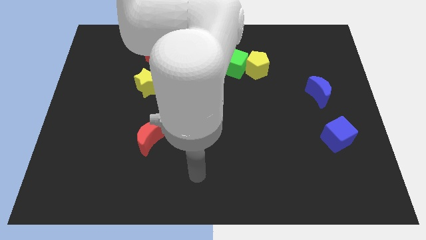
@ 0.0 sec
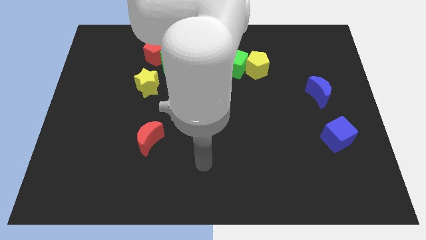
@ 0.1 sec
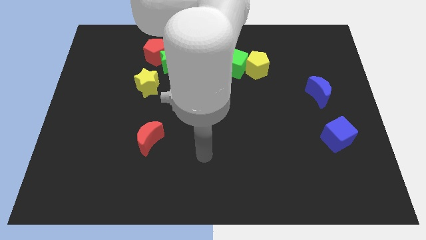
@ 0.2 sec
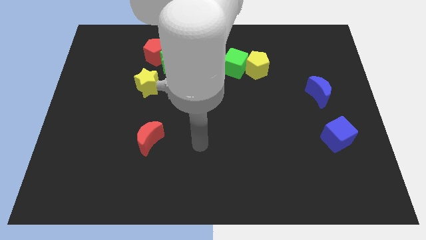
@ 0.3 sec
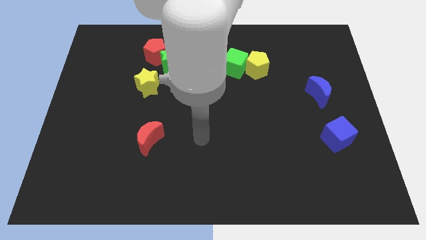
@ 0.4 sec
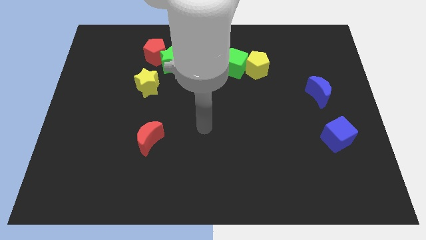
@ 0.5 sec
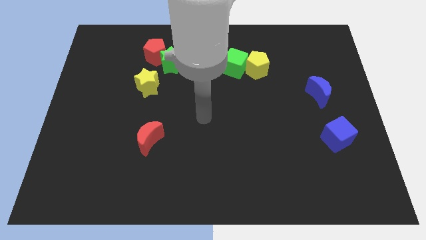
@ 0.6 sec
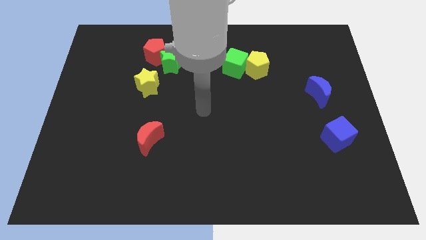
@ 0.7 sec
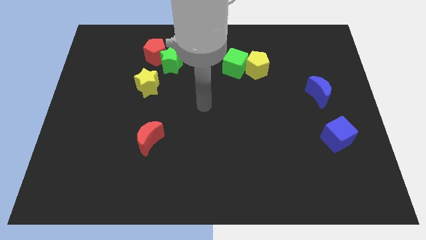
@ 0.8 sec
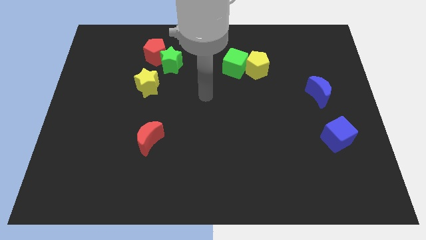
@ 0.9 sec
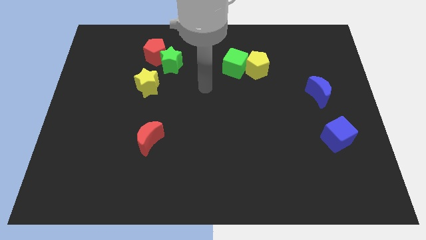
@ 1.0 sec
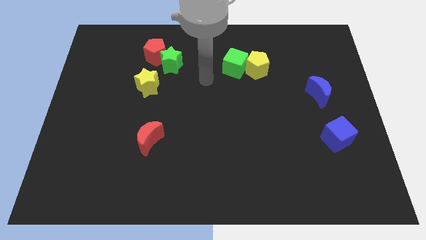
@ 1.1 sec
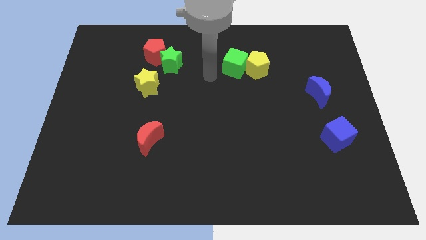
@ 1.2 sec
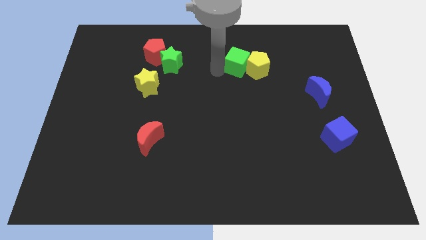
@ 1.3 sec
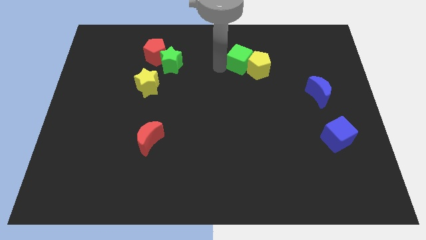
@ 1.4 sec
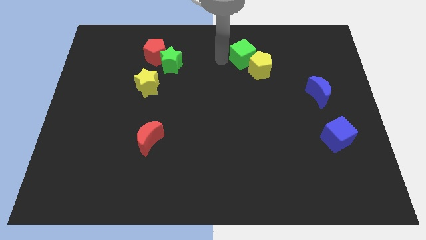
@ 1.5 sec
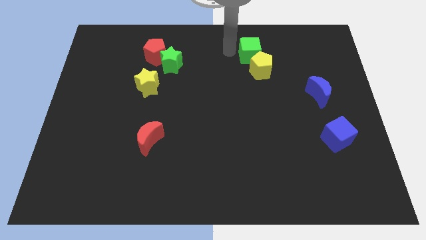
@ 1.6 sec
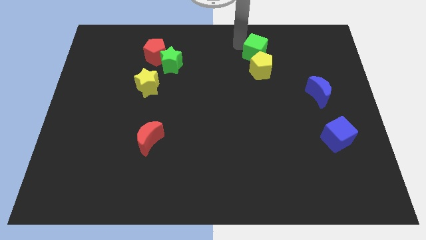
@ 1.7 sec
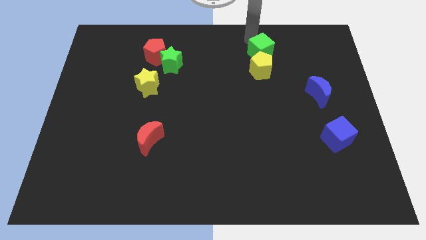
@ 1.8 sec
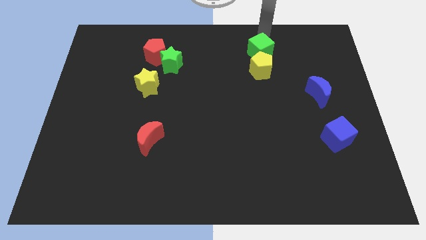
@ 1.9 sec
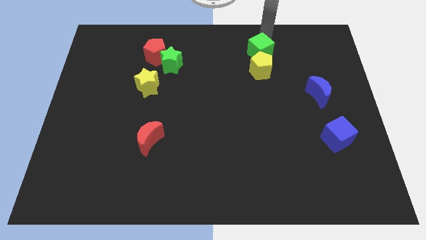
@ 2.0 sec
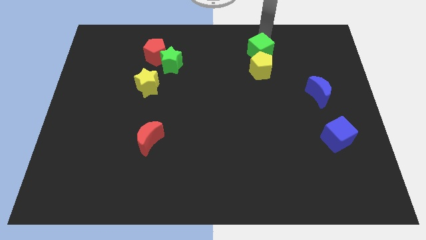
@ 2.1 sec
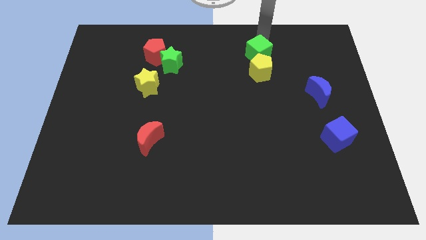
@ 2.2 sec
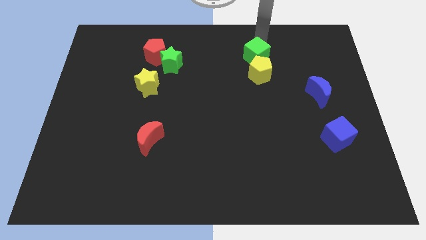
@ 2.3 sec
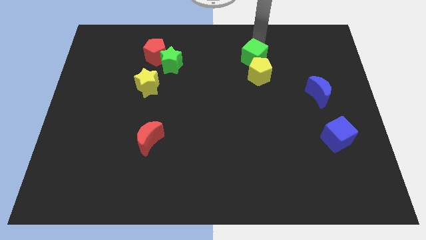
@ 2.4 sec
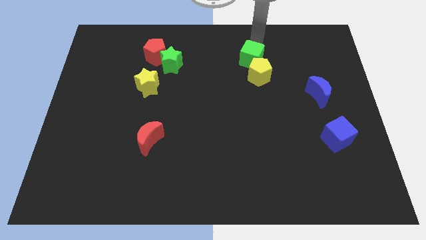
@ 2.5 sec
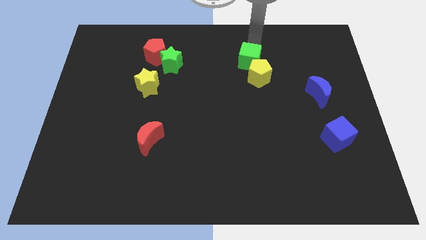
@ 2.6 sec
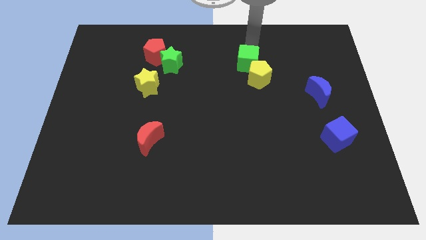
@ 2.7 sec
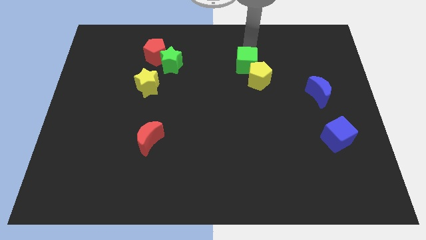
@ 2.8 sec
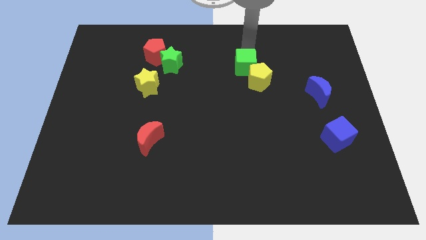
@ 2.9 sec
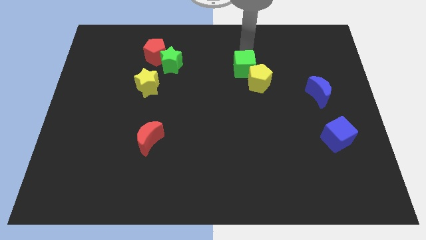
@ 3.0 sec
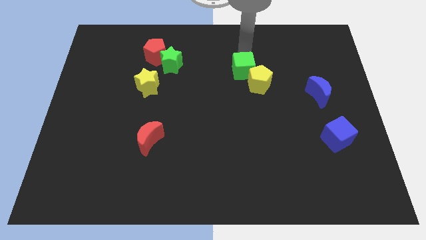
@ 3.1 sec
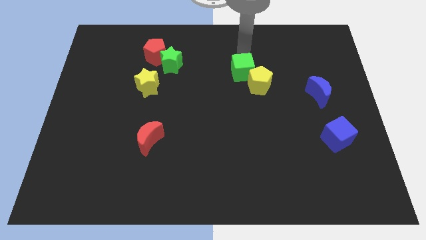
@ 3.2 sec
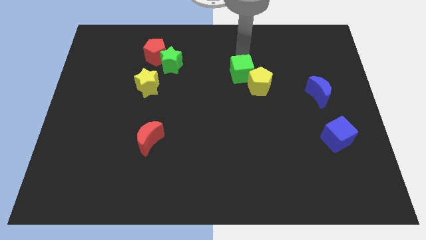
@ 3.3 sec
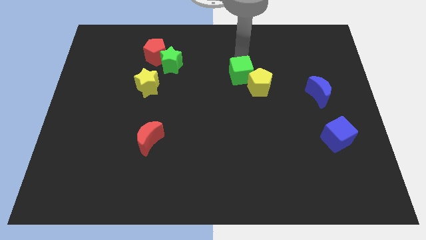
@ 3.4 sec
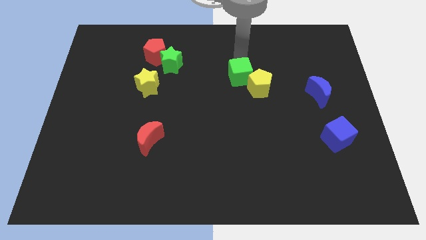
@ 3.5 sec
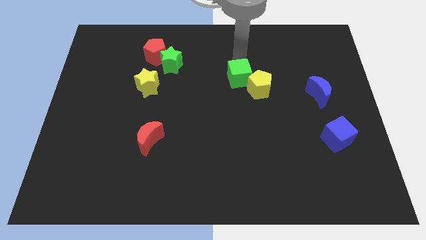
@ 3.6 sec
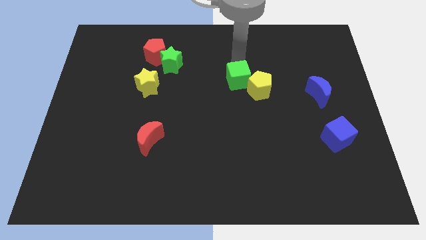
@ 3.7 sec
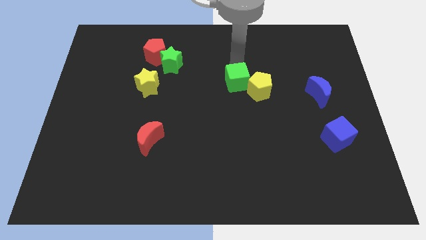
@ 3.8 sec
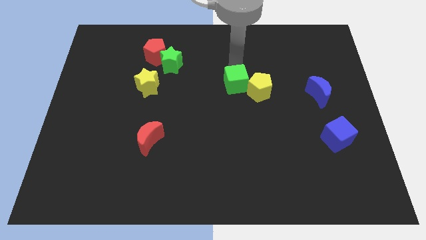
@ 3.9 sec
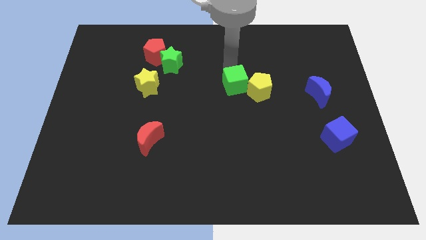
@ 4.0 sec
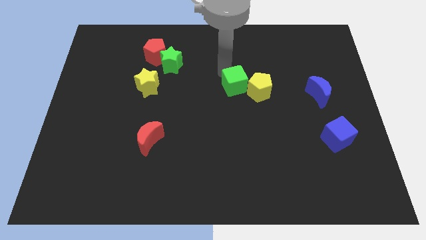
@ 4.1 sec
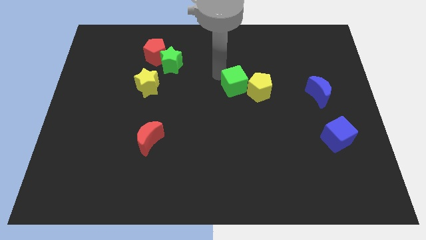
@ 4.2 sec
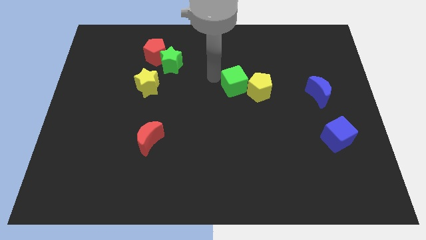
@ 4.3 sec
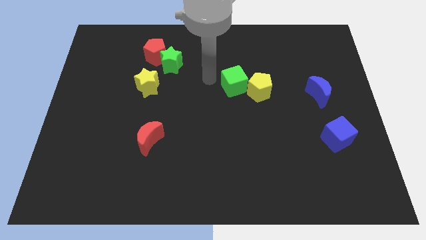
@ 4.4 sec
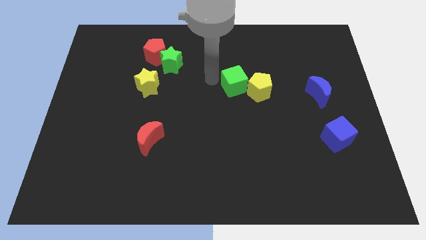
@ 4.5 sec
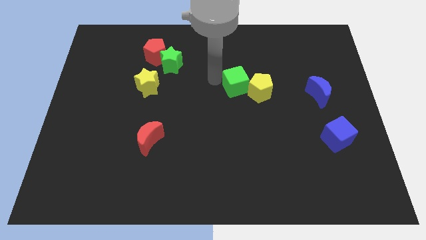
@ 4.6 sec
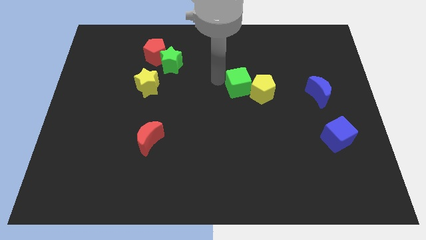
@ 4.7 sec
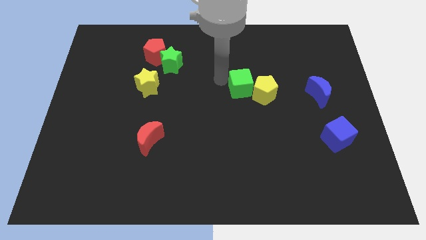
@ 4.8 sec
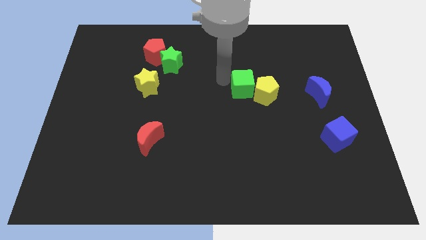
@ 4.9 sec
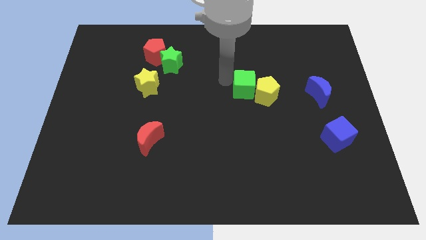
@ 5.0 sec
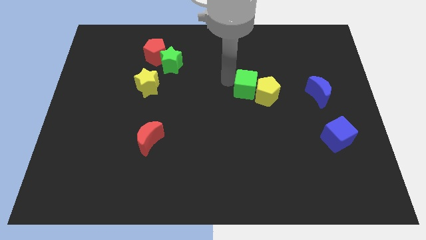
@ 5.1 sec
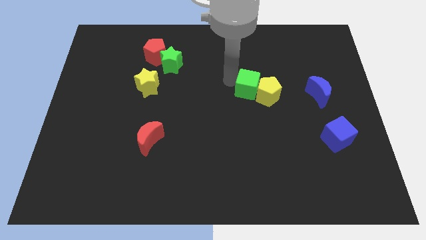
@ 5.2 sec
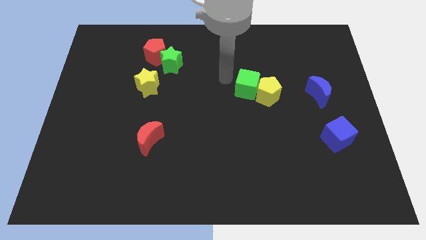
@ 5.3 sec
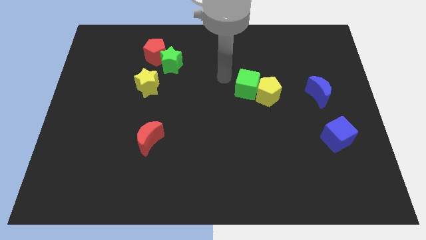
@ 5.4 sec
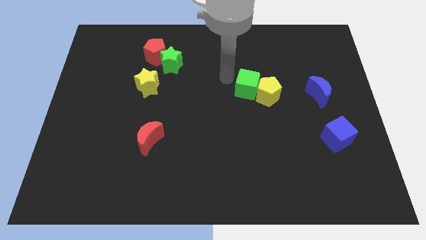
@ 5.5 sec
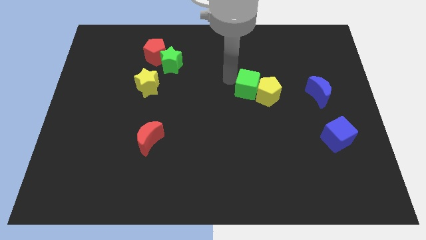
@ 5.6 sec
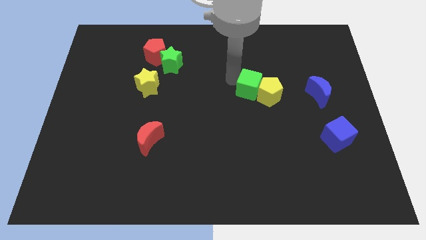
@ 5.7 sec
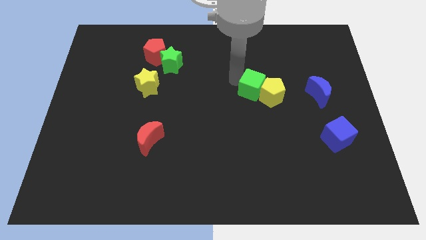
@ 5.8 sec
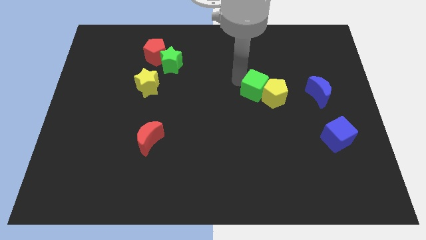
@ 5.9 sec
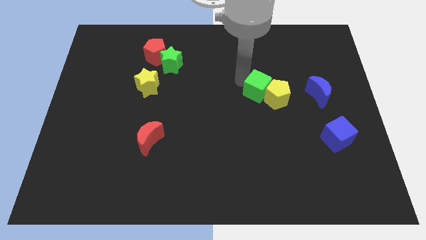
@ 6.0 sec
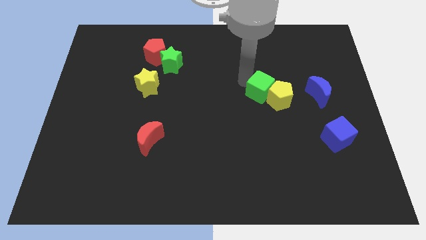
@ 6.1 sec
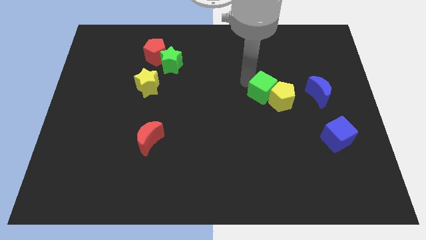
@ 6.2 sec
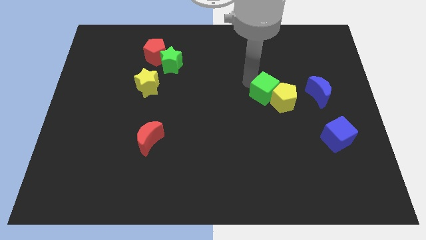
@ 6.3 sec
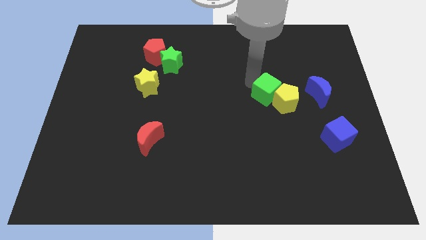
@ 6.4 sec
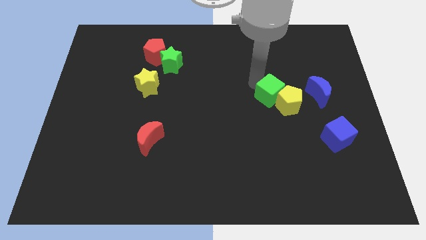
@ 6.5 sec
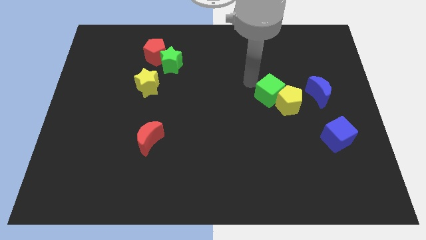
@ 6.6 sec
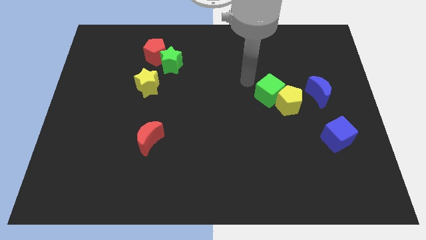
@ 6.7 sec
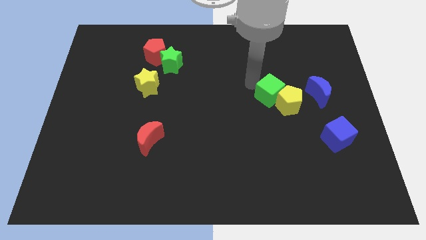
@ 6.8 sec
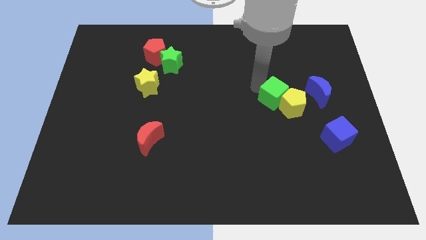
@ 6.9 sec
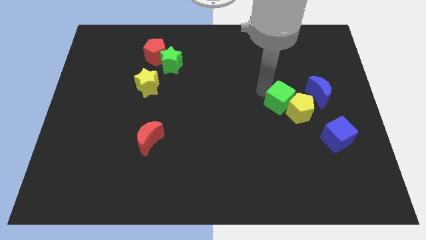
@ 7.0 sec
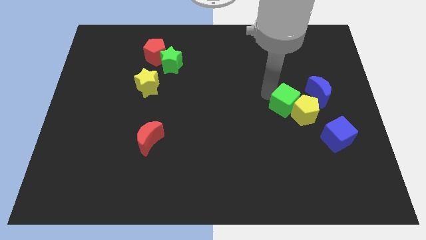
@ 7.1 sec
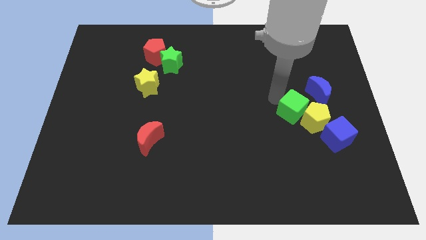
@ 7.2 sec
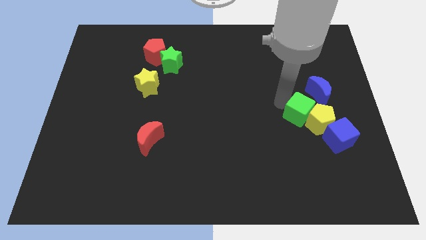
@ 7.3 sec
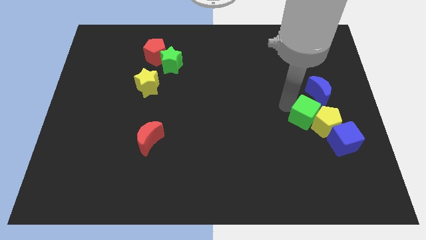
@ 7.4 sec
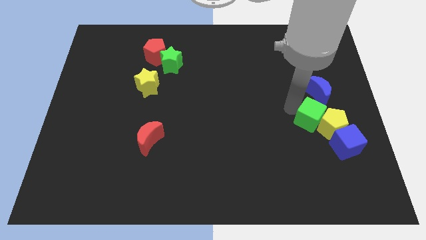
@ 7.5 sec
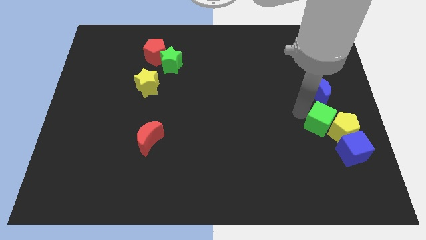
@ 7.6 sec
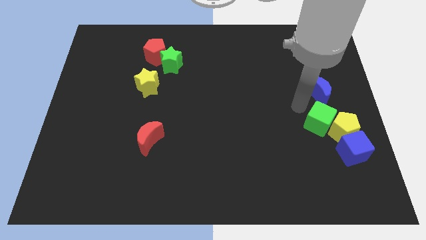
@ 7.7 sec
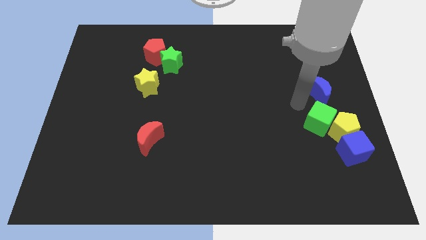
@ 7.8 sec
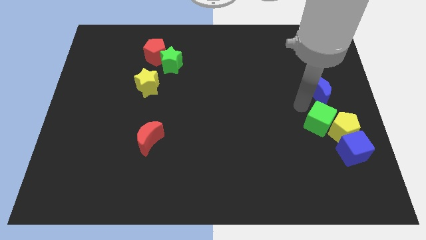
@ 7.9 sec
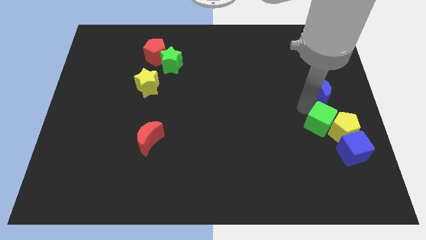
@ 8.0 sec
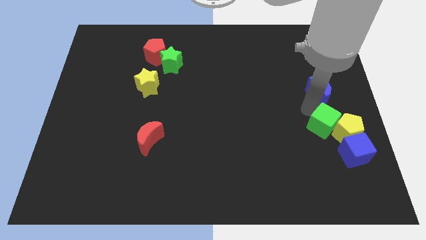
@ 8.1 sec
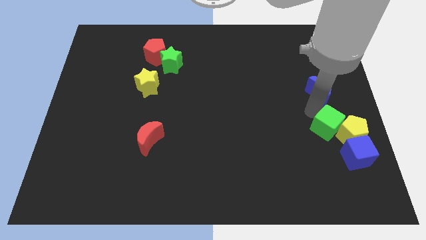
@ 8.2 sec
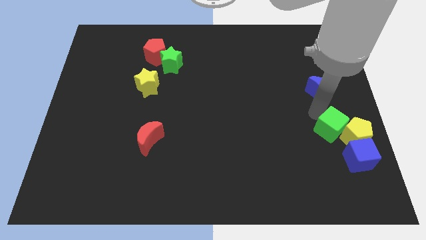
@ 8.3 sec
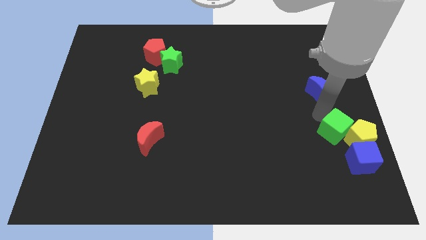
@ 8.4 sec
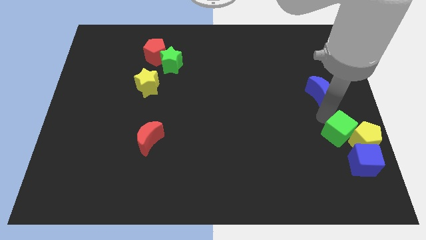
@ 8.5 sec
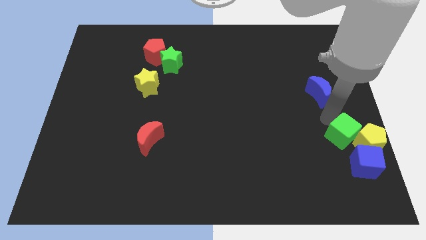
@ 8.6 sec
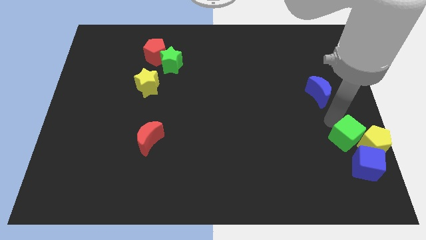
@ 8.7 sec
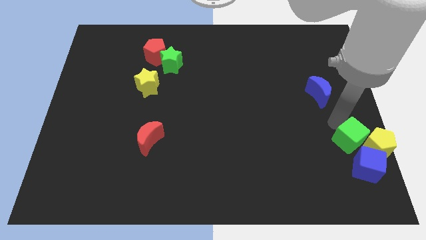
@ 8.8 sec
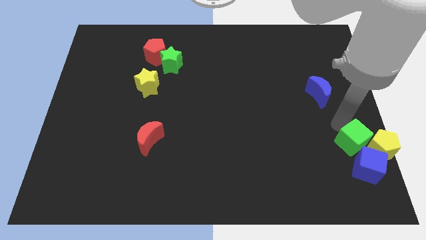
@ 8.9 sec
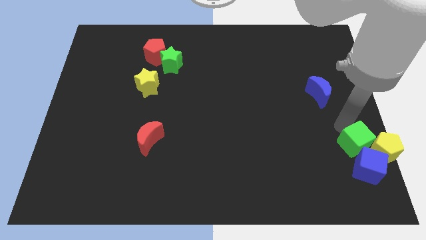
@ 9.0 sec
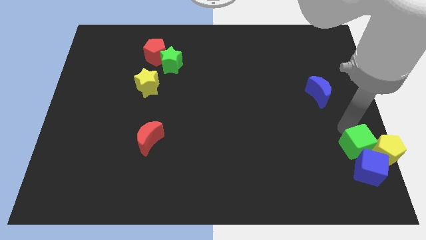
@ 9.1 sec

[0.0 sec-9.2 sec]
slide the green cube to the blue cube
